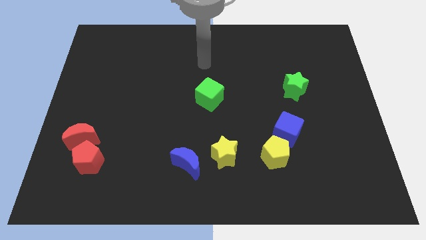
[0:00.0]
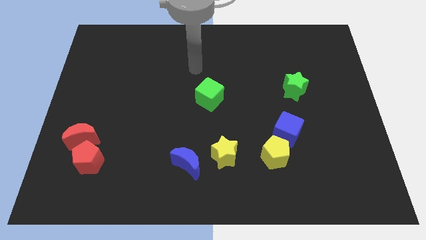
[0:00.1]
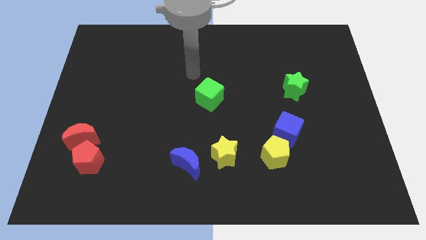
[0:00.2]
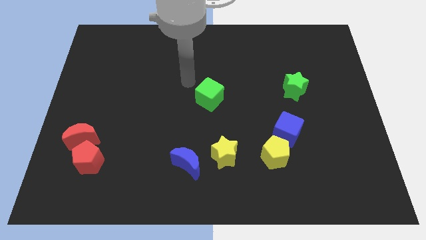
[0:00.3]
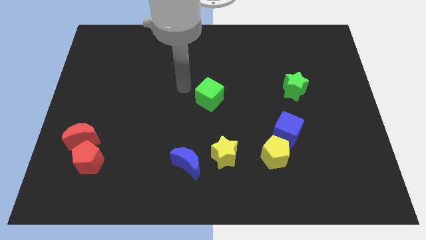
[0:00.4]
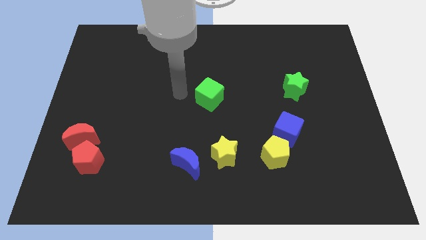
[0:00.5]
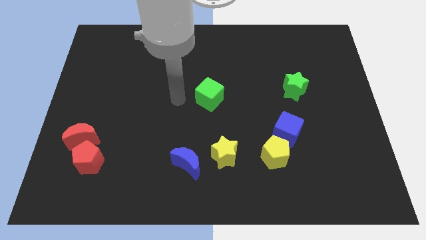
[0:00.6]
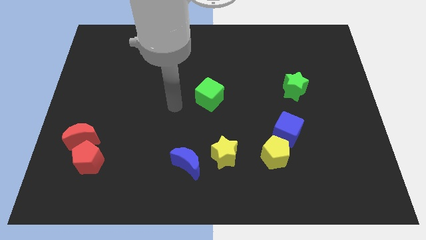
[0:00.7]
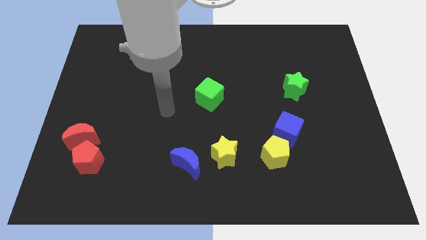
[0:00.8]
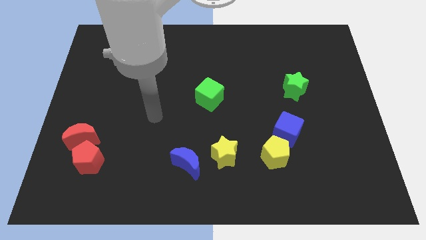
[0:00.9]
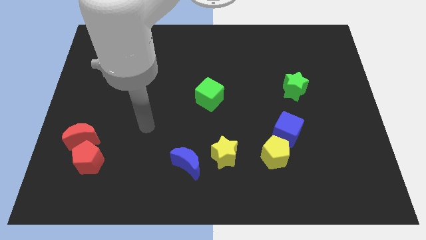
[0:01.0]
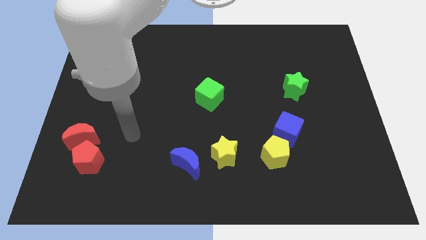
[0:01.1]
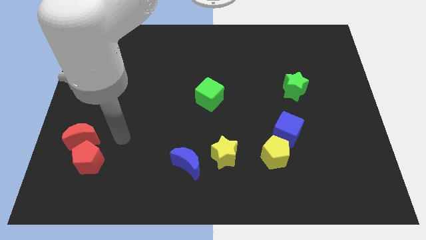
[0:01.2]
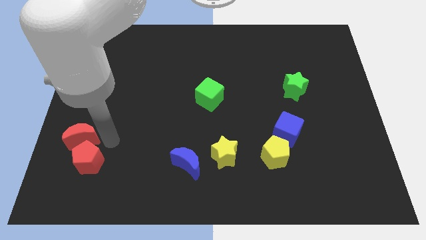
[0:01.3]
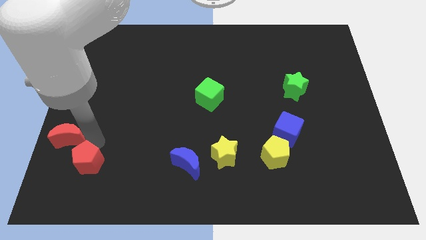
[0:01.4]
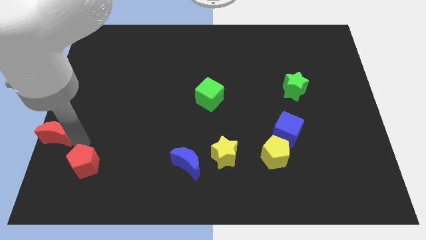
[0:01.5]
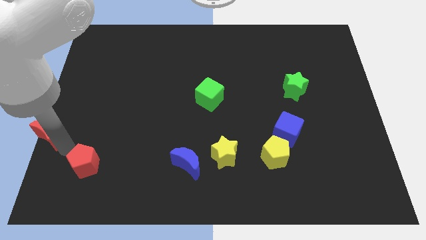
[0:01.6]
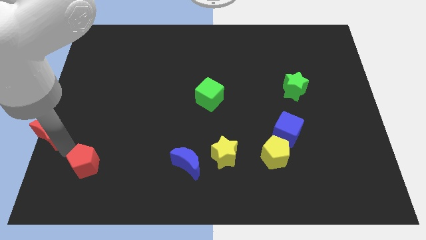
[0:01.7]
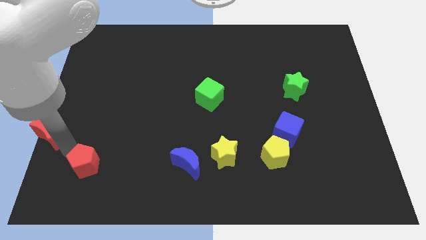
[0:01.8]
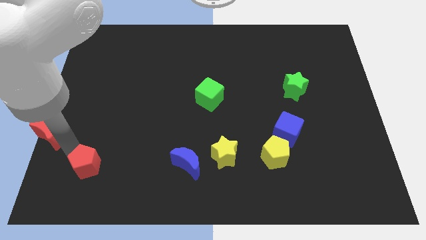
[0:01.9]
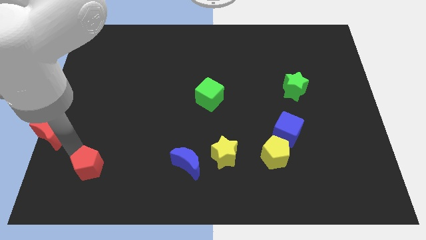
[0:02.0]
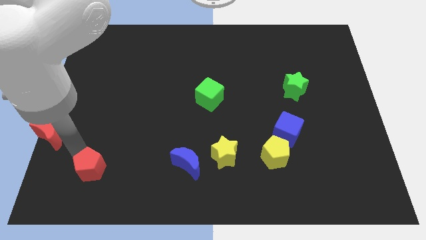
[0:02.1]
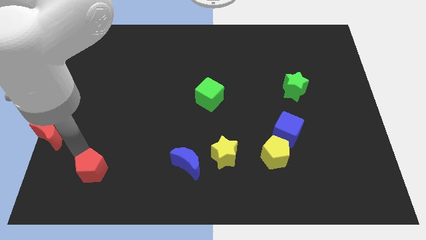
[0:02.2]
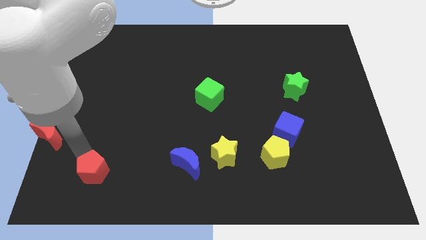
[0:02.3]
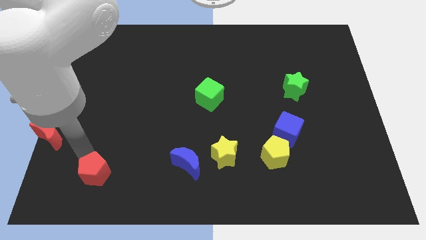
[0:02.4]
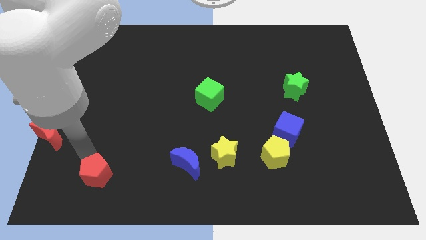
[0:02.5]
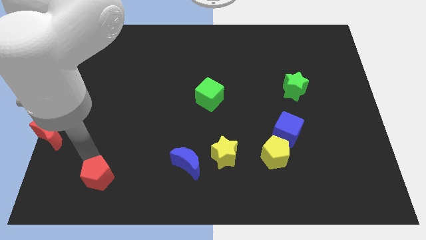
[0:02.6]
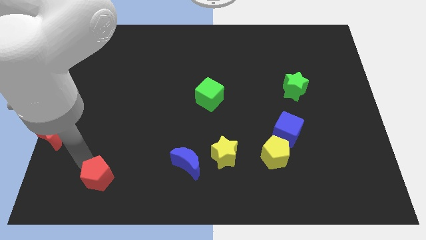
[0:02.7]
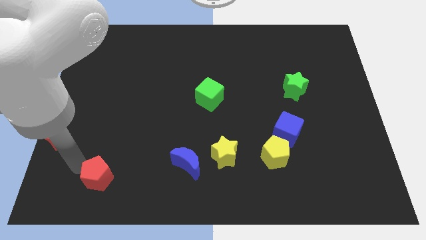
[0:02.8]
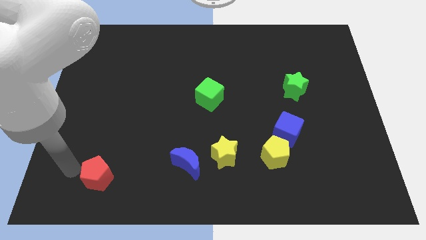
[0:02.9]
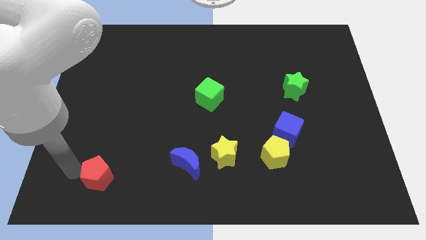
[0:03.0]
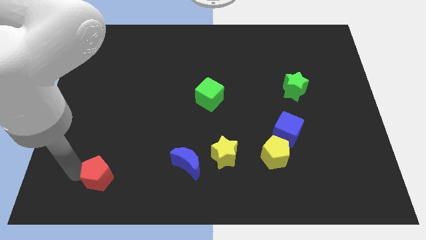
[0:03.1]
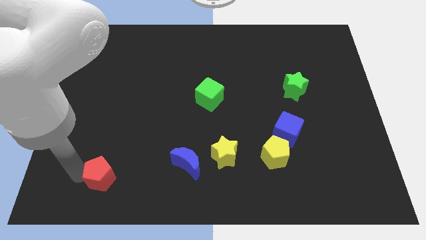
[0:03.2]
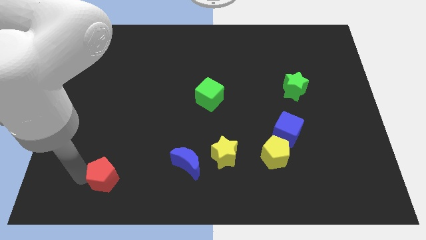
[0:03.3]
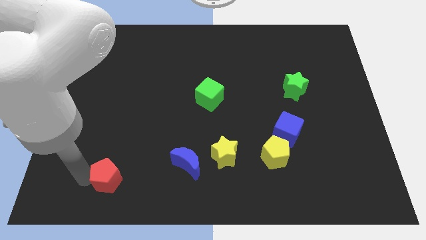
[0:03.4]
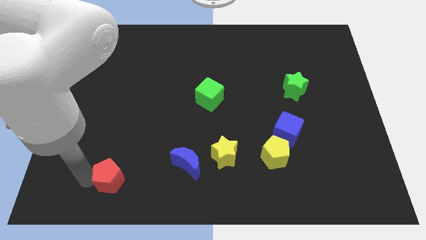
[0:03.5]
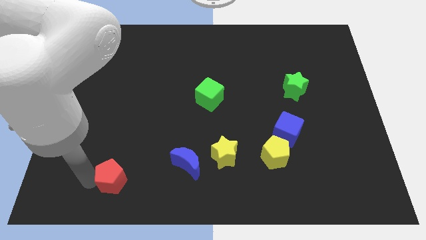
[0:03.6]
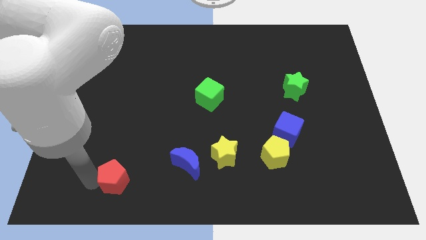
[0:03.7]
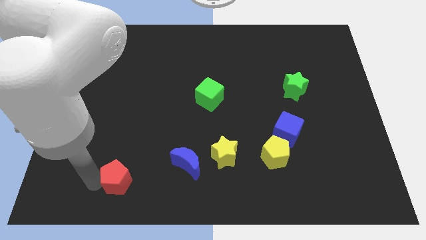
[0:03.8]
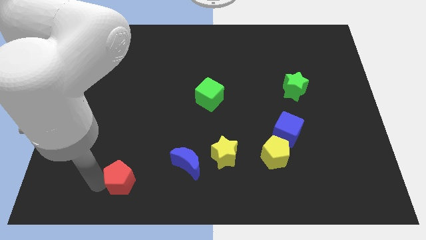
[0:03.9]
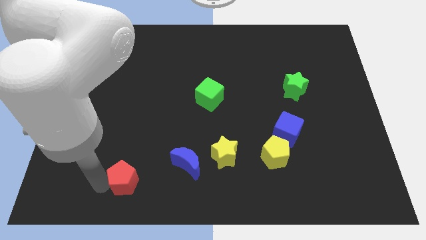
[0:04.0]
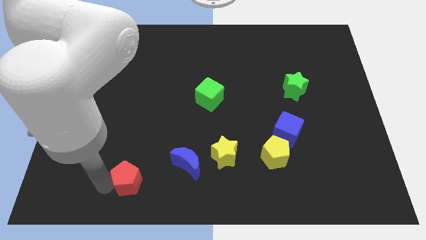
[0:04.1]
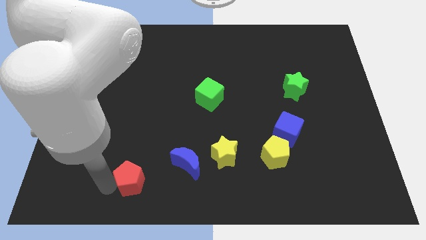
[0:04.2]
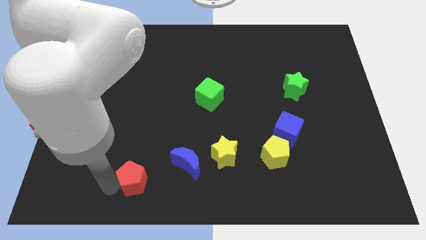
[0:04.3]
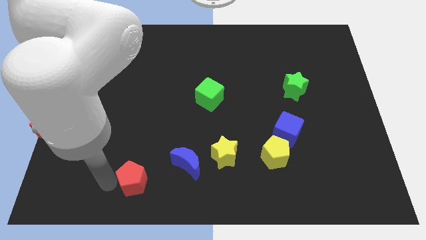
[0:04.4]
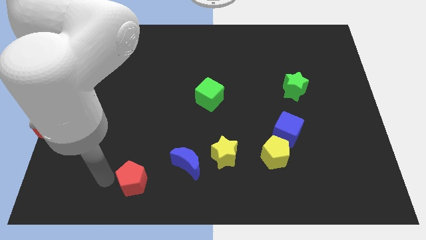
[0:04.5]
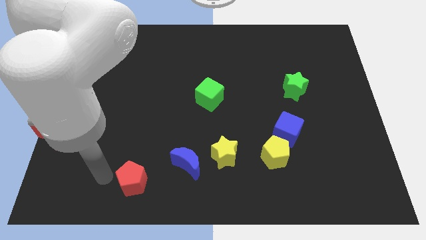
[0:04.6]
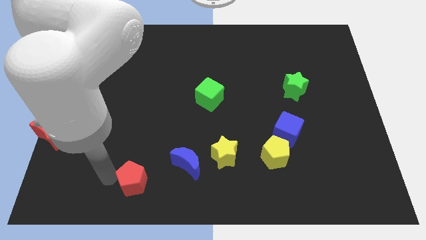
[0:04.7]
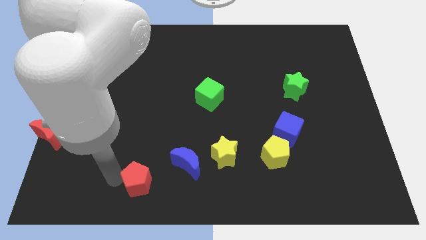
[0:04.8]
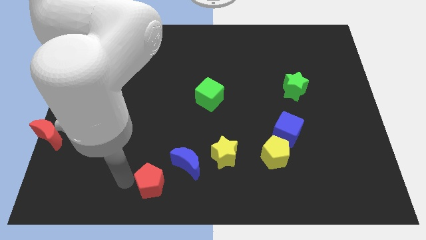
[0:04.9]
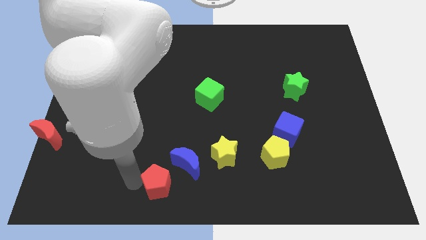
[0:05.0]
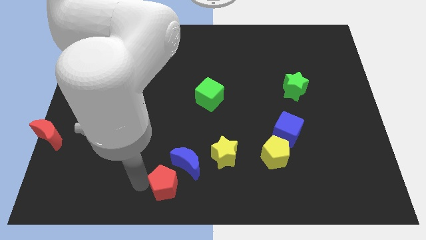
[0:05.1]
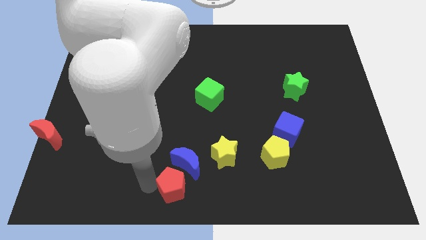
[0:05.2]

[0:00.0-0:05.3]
slide the red pentagon to the bottom left side of the yellow star

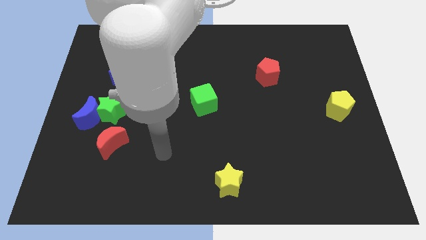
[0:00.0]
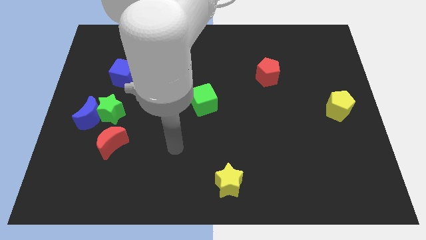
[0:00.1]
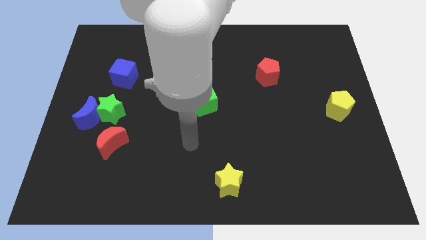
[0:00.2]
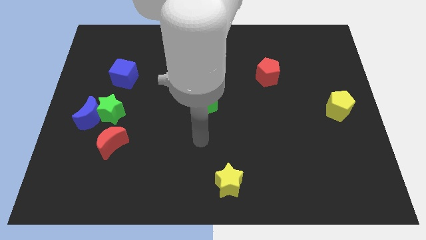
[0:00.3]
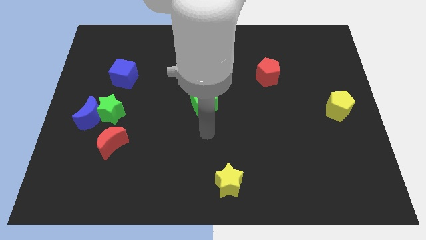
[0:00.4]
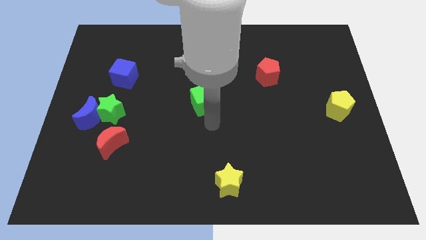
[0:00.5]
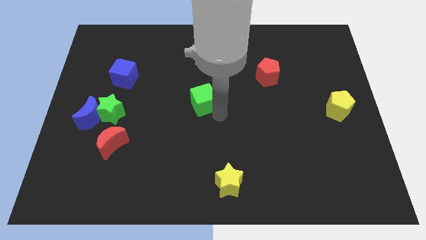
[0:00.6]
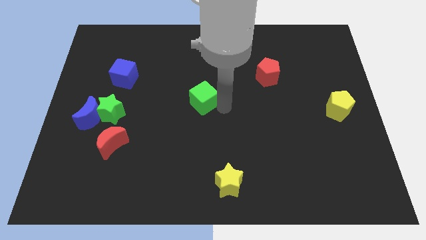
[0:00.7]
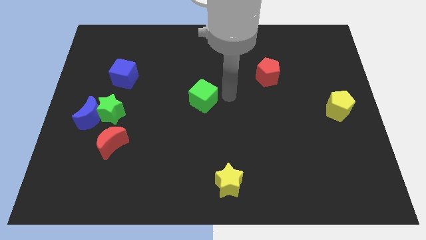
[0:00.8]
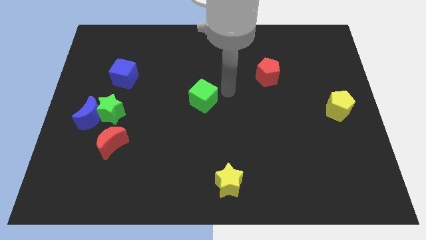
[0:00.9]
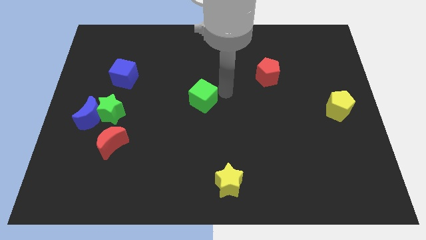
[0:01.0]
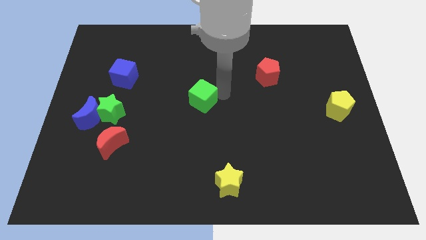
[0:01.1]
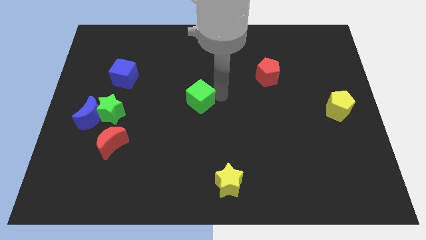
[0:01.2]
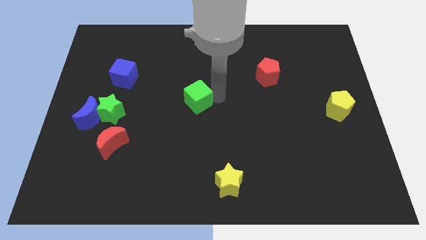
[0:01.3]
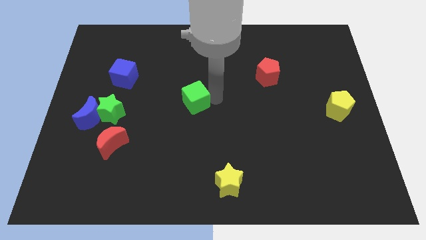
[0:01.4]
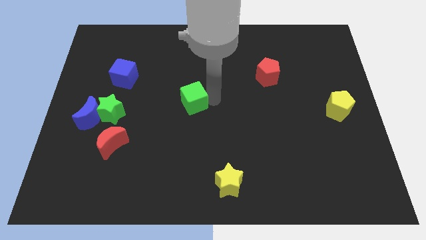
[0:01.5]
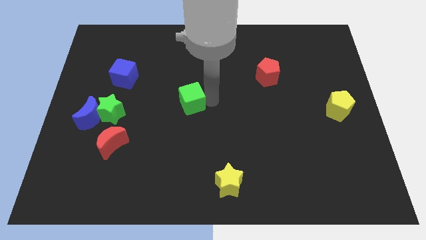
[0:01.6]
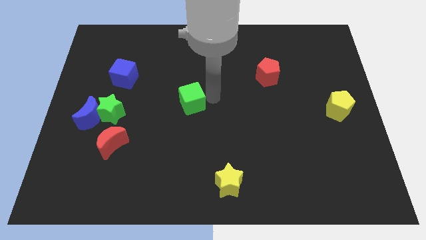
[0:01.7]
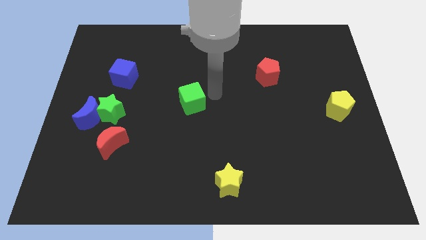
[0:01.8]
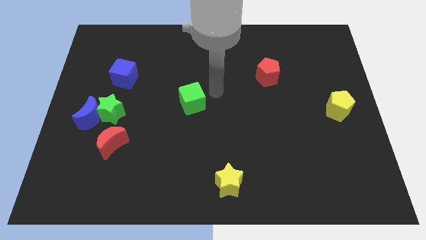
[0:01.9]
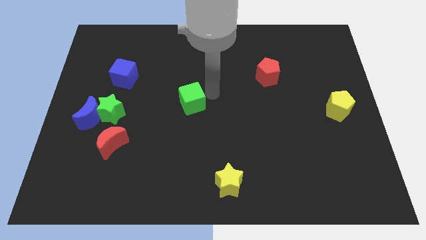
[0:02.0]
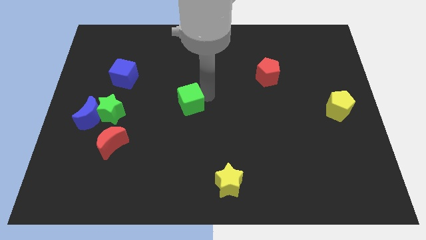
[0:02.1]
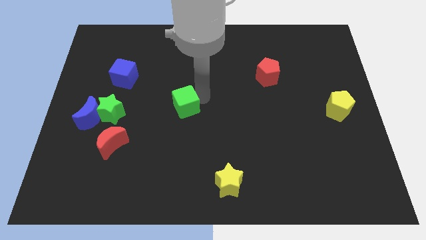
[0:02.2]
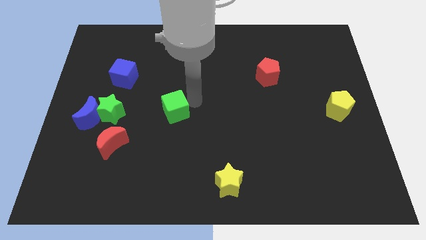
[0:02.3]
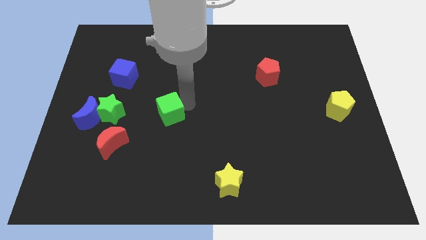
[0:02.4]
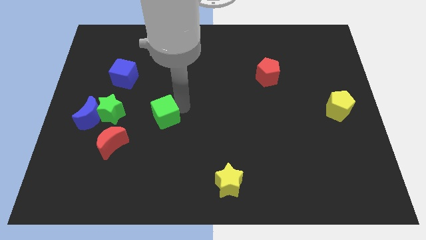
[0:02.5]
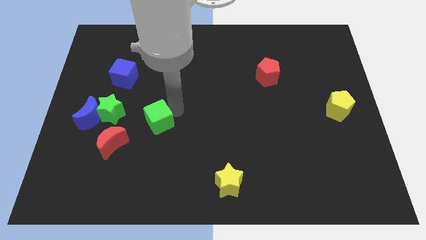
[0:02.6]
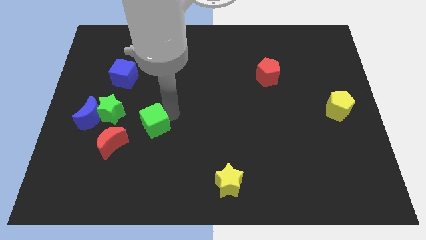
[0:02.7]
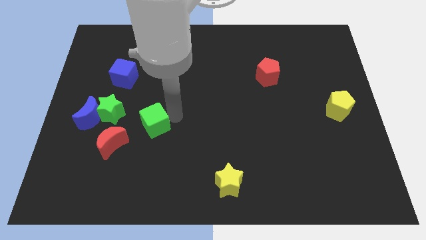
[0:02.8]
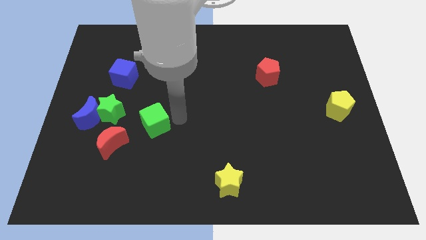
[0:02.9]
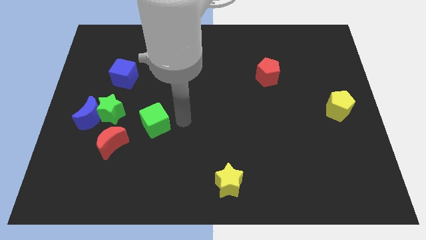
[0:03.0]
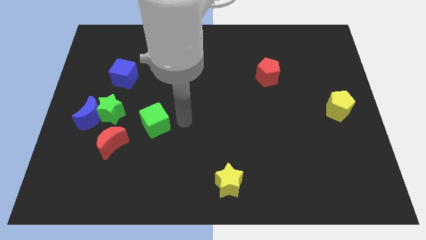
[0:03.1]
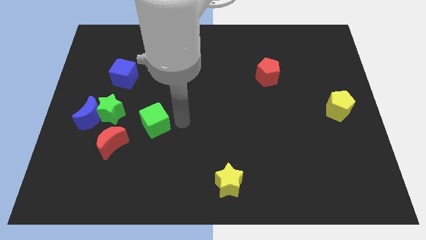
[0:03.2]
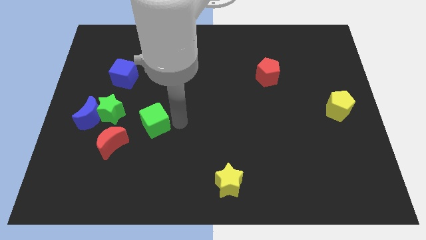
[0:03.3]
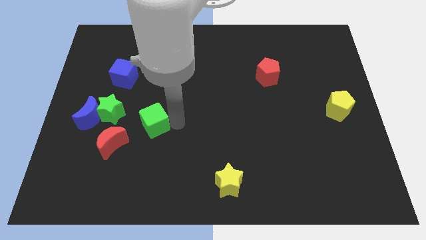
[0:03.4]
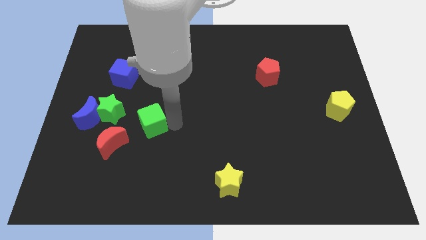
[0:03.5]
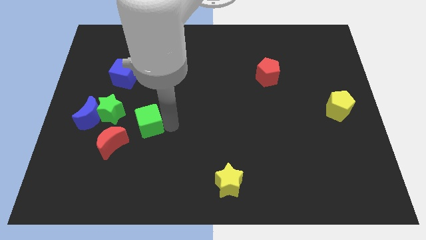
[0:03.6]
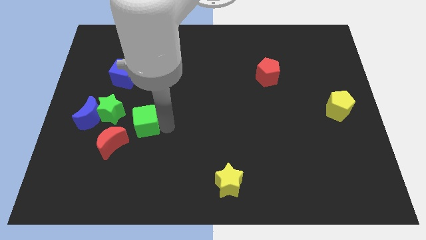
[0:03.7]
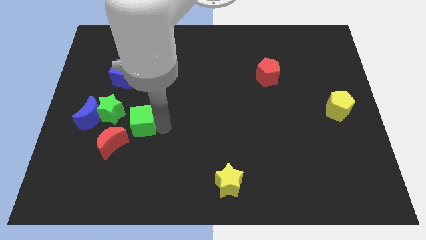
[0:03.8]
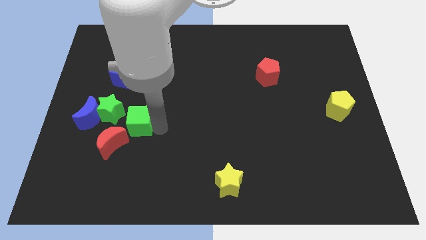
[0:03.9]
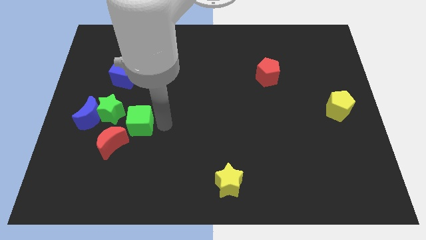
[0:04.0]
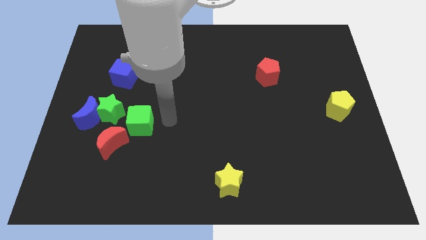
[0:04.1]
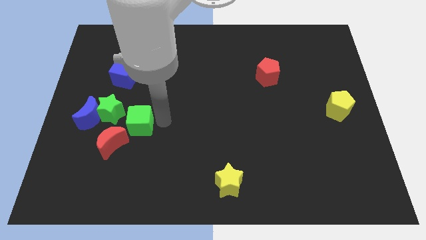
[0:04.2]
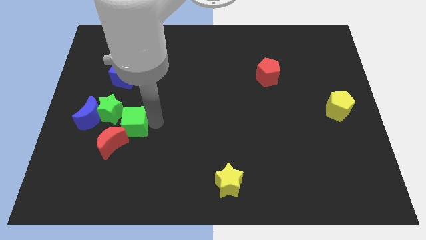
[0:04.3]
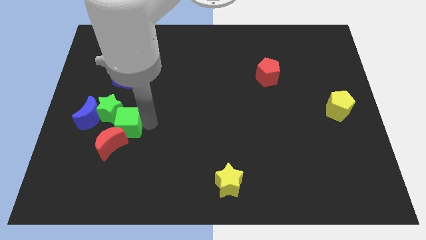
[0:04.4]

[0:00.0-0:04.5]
put the green cube to the bottom side of the blue cube
